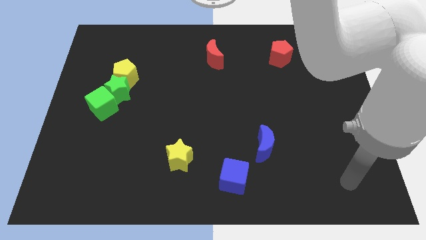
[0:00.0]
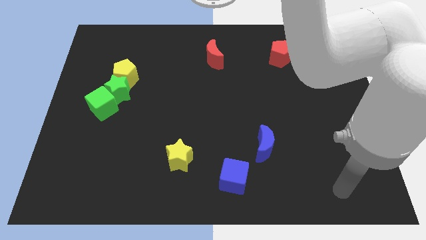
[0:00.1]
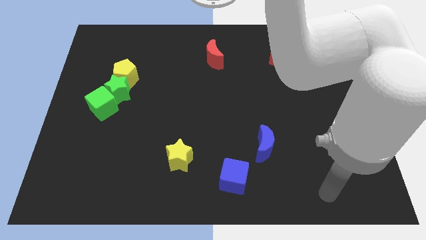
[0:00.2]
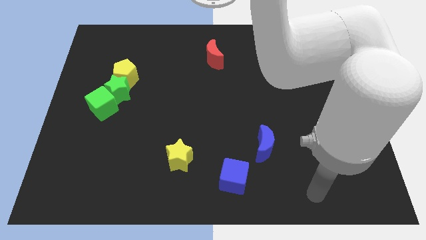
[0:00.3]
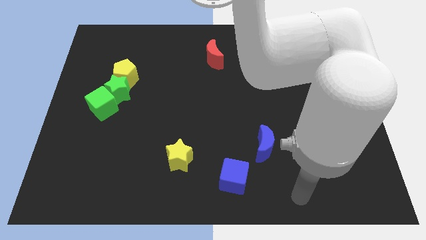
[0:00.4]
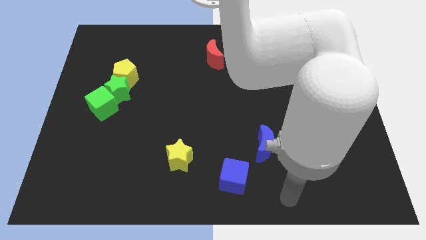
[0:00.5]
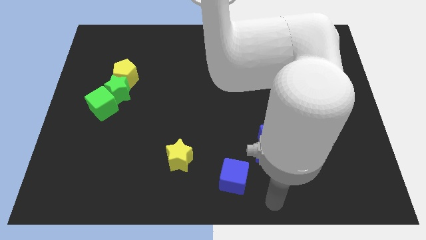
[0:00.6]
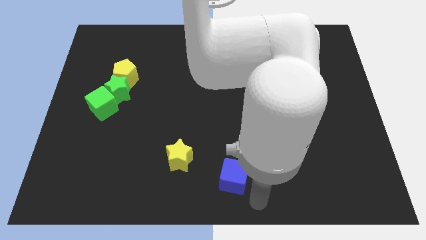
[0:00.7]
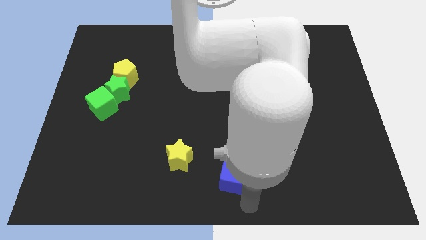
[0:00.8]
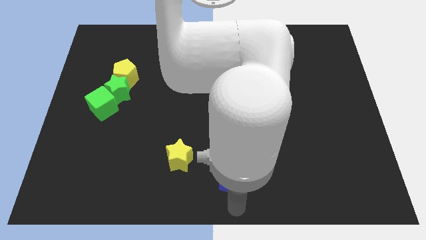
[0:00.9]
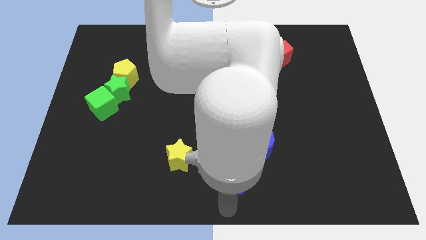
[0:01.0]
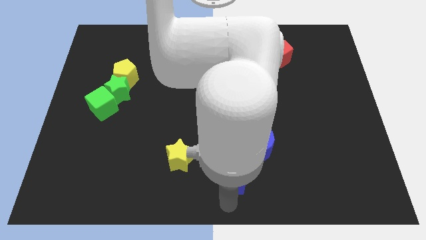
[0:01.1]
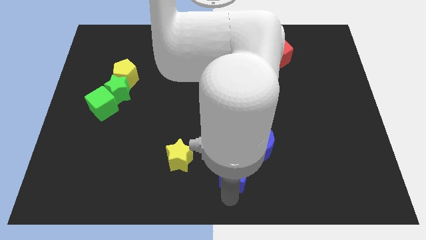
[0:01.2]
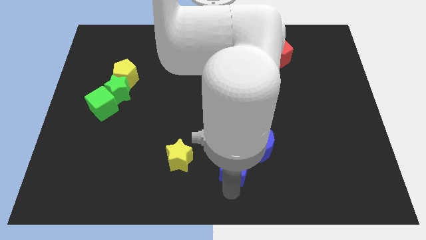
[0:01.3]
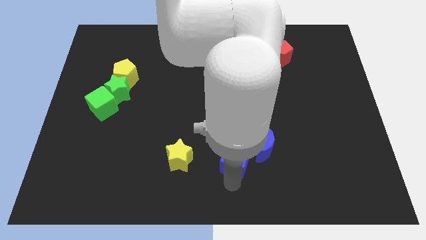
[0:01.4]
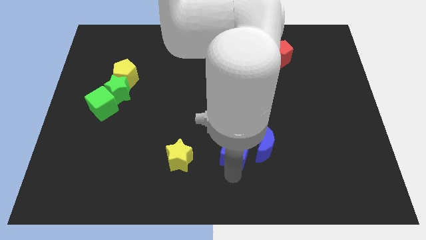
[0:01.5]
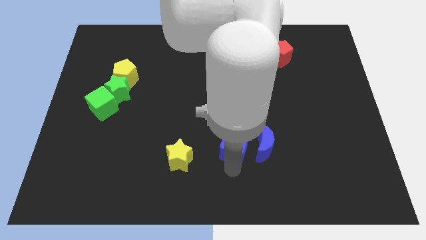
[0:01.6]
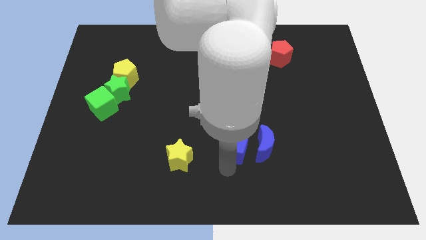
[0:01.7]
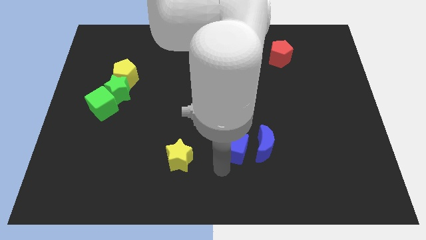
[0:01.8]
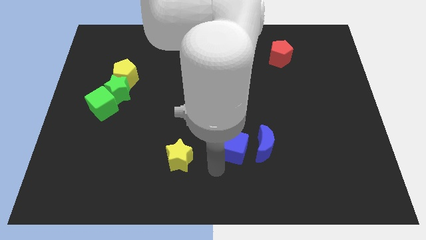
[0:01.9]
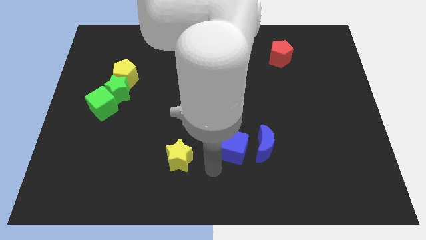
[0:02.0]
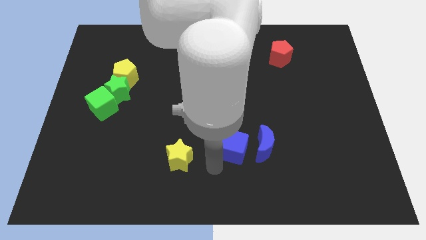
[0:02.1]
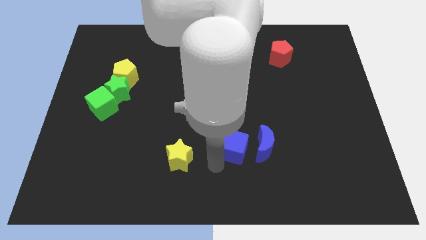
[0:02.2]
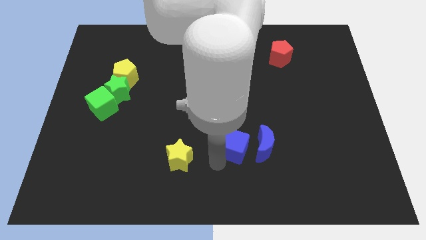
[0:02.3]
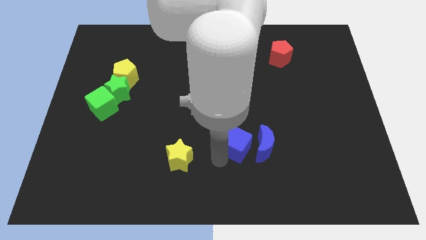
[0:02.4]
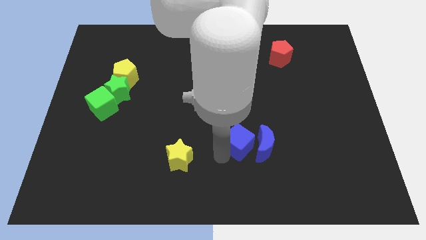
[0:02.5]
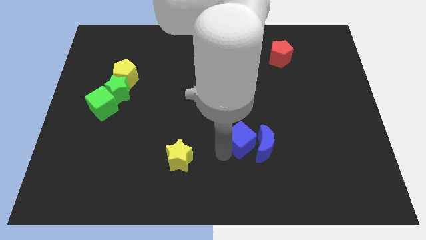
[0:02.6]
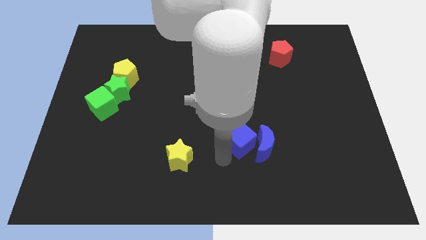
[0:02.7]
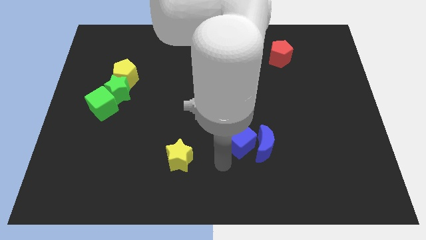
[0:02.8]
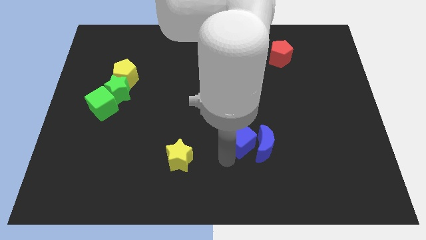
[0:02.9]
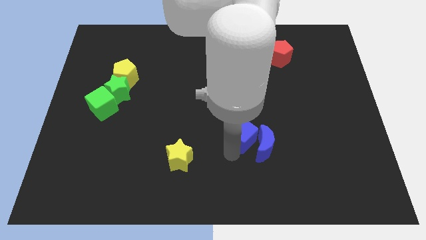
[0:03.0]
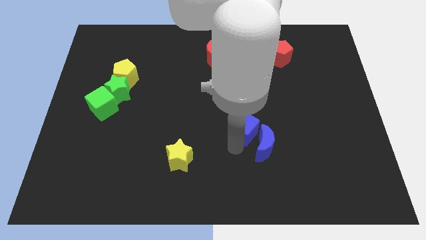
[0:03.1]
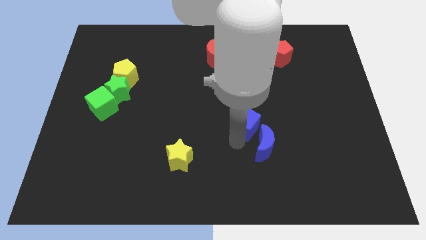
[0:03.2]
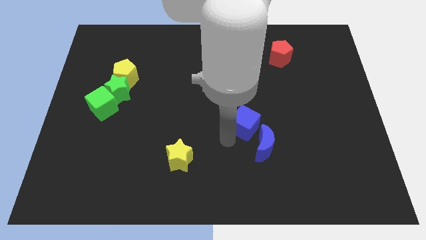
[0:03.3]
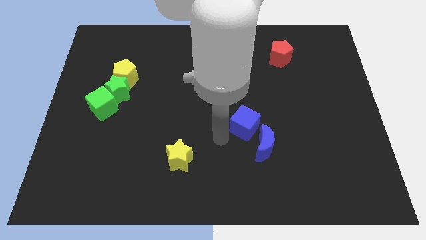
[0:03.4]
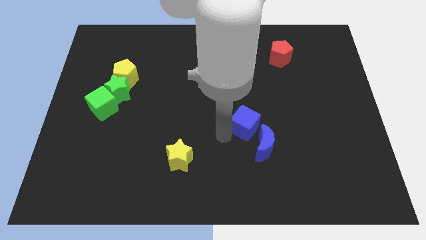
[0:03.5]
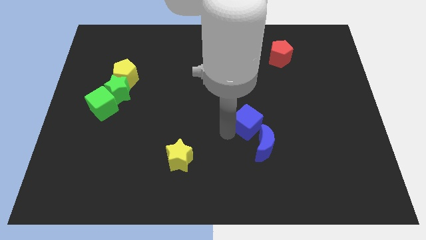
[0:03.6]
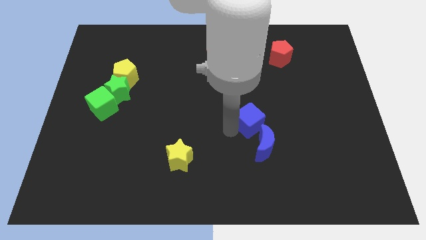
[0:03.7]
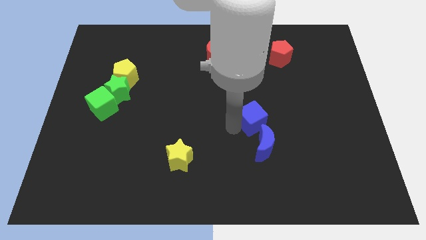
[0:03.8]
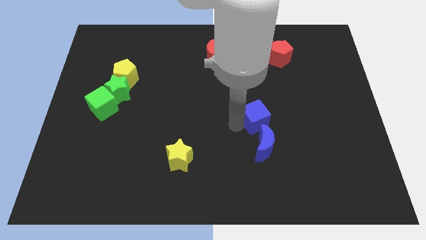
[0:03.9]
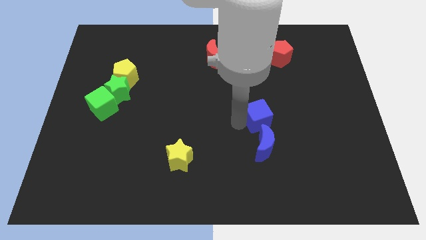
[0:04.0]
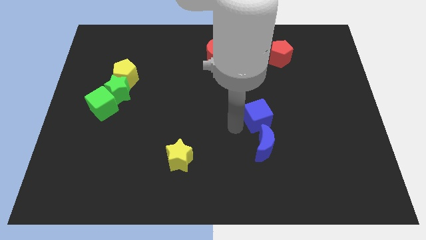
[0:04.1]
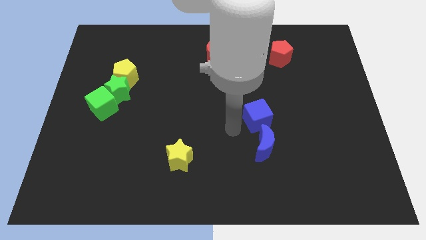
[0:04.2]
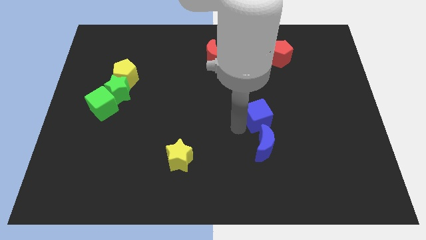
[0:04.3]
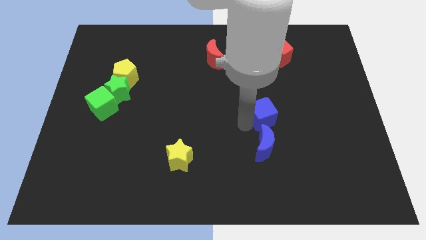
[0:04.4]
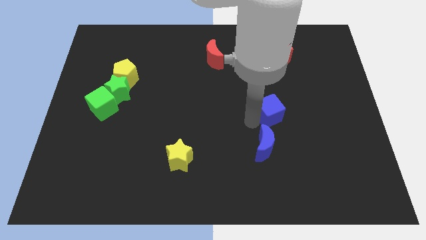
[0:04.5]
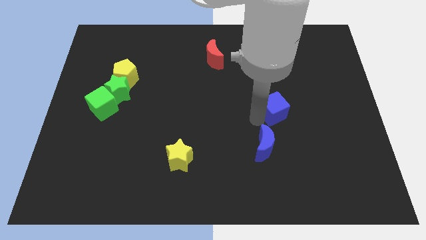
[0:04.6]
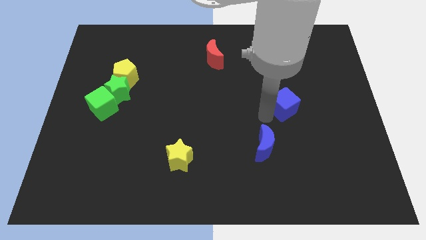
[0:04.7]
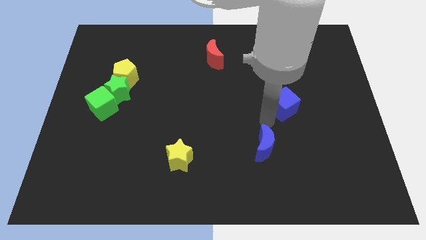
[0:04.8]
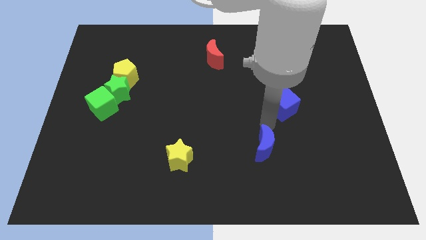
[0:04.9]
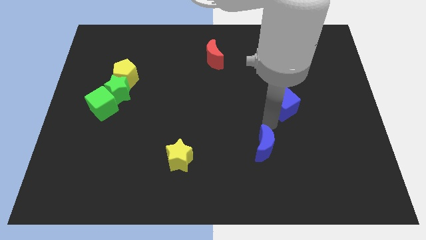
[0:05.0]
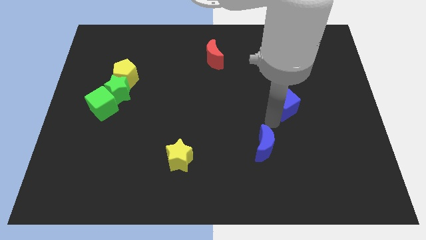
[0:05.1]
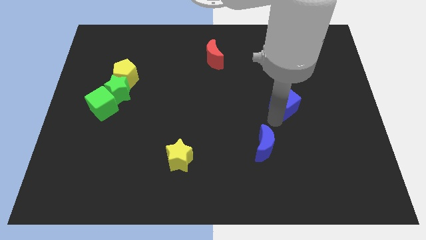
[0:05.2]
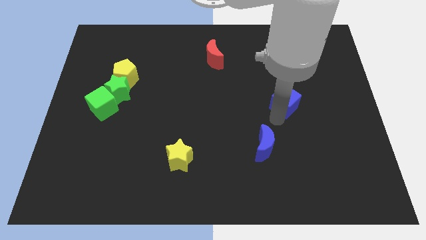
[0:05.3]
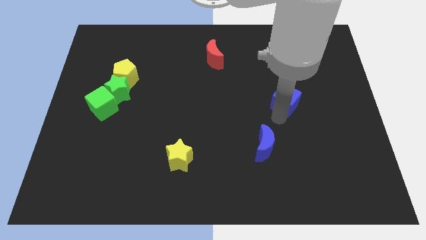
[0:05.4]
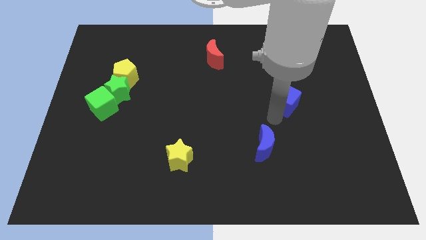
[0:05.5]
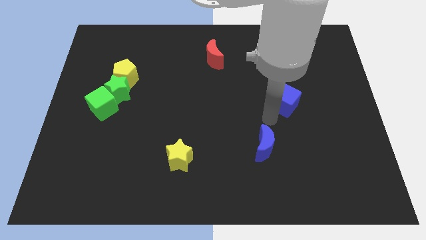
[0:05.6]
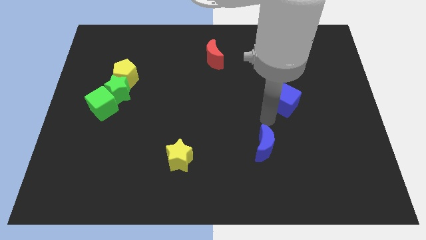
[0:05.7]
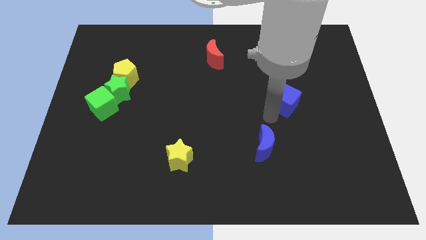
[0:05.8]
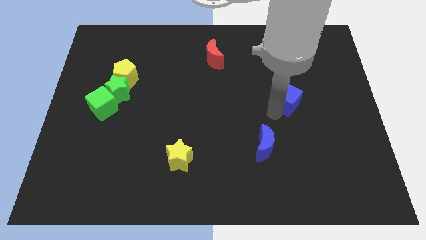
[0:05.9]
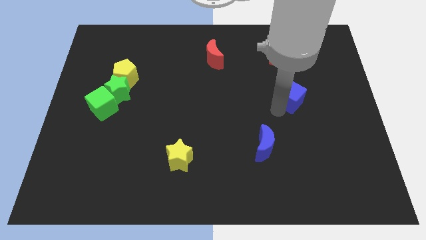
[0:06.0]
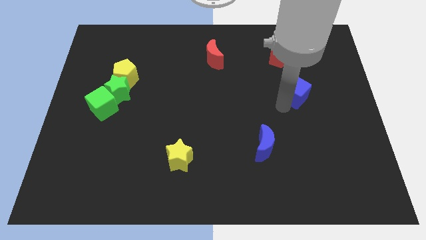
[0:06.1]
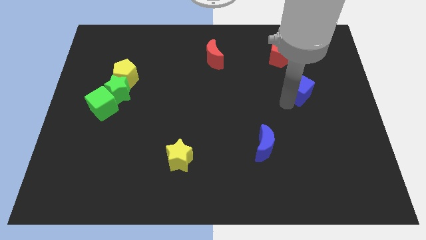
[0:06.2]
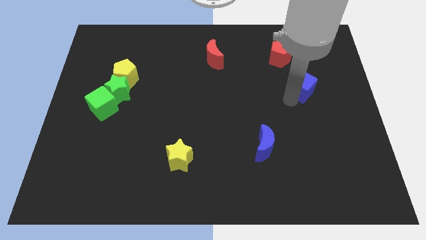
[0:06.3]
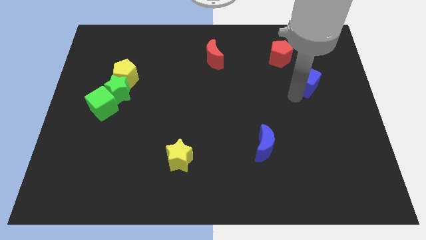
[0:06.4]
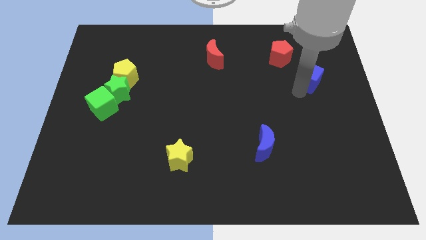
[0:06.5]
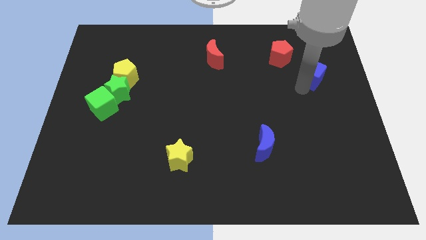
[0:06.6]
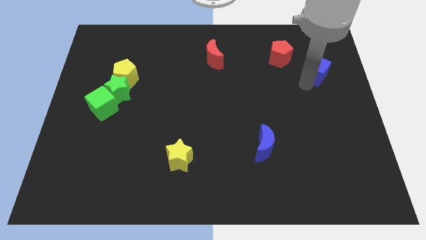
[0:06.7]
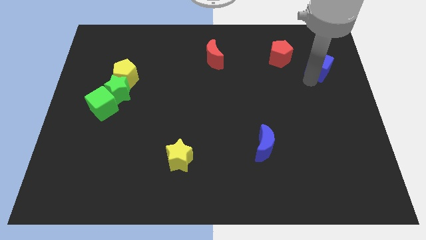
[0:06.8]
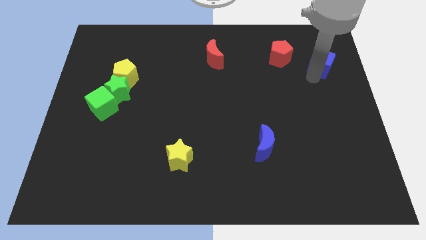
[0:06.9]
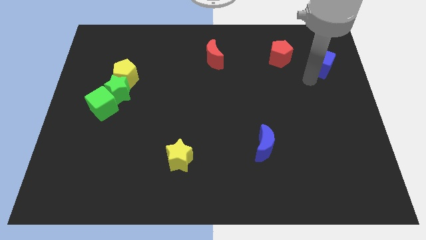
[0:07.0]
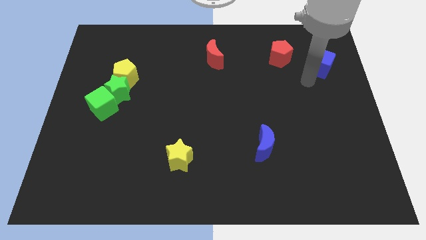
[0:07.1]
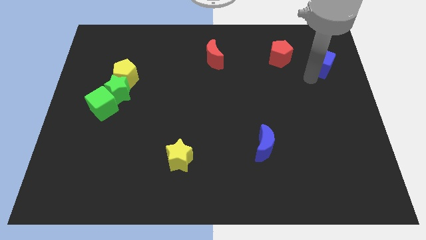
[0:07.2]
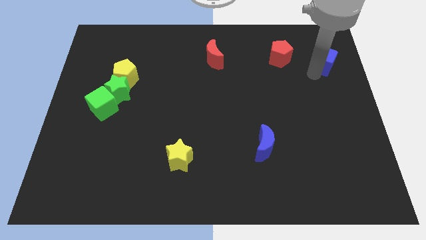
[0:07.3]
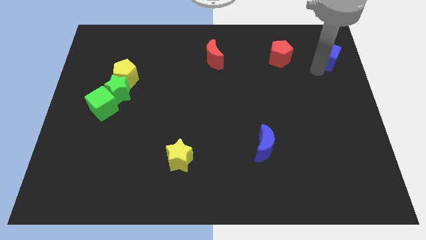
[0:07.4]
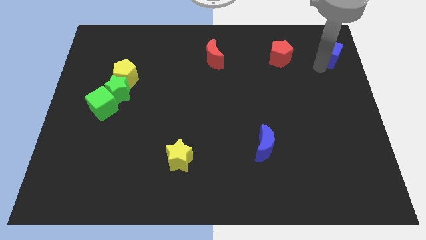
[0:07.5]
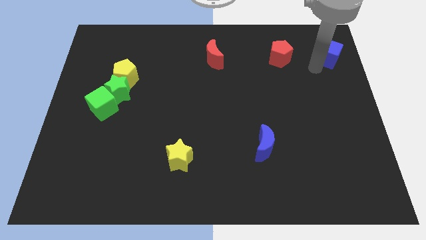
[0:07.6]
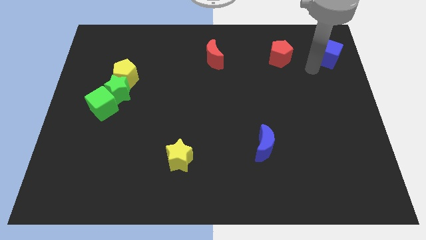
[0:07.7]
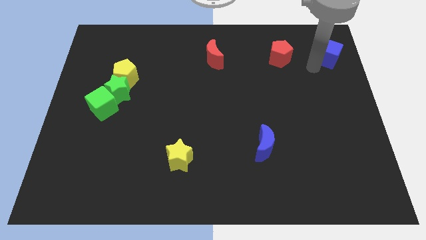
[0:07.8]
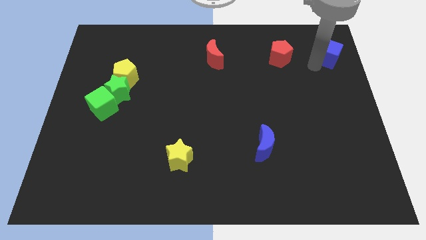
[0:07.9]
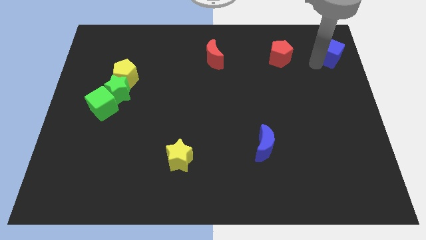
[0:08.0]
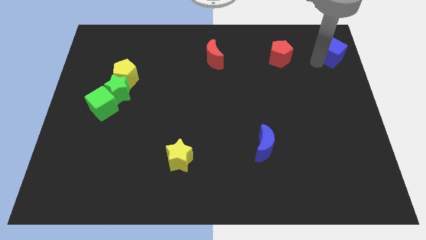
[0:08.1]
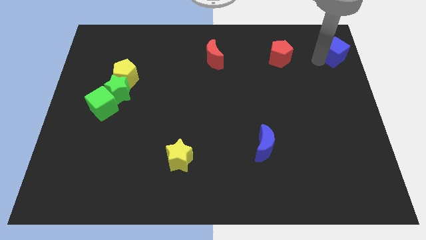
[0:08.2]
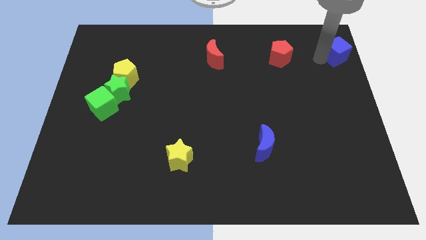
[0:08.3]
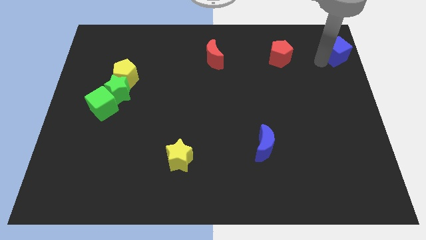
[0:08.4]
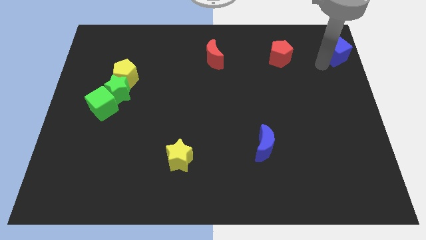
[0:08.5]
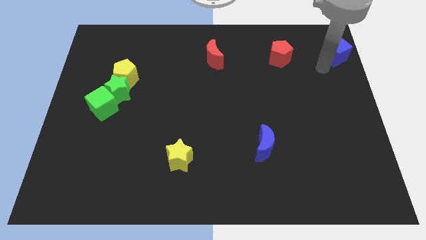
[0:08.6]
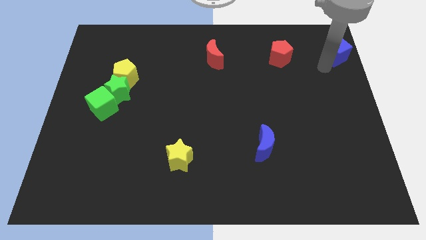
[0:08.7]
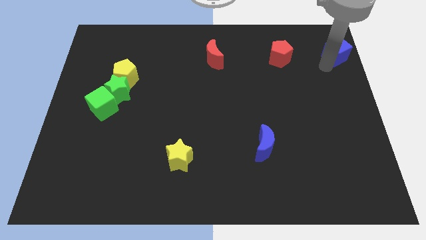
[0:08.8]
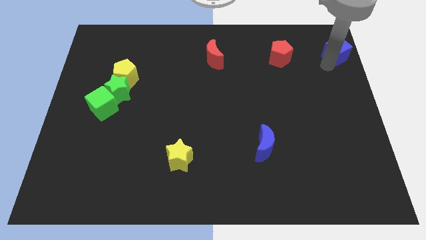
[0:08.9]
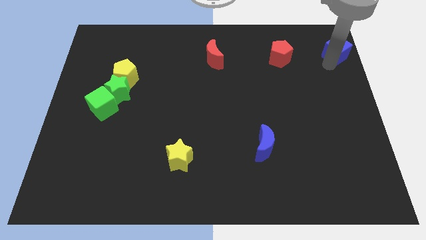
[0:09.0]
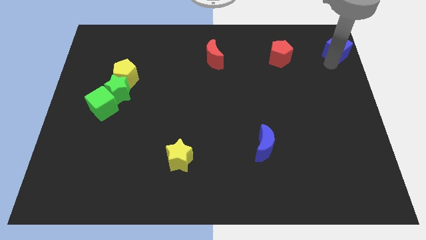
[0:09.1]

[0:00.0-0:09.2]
push the blue cube to the upper right corner
